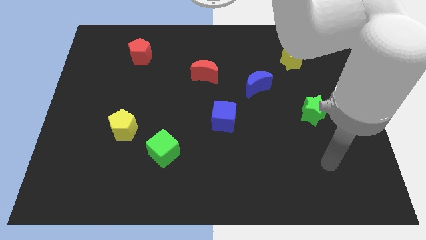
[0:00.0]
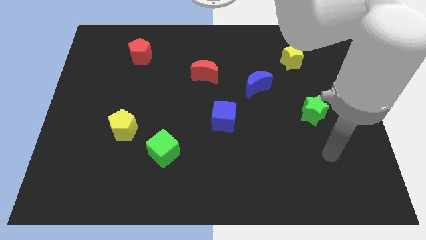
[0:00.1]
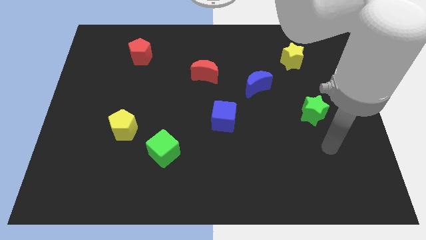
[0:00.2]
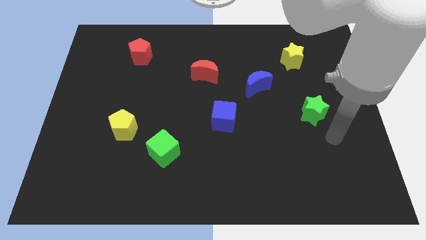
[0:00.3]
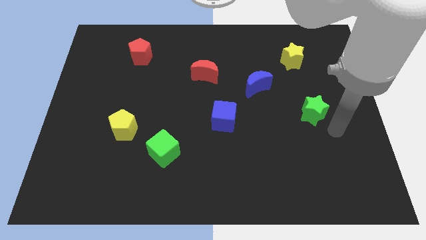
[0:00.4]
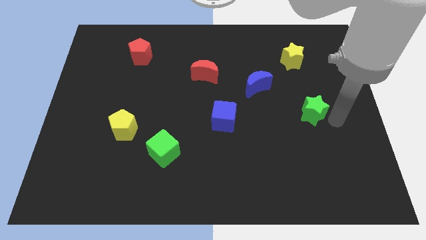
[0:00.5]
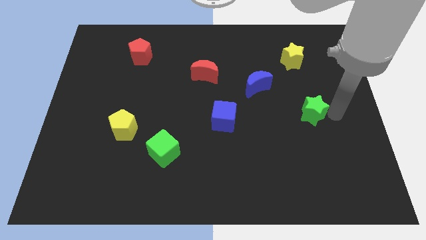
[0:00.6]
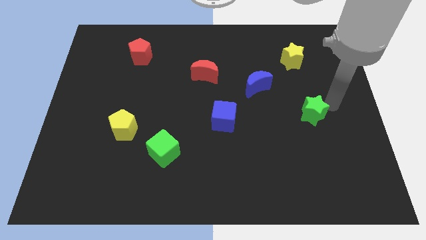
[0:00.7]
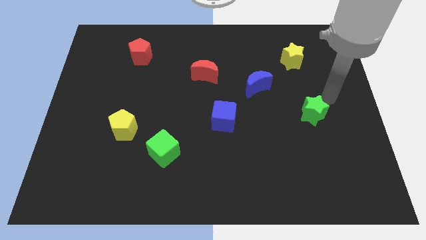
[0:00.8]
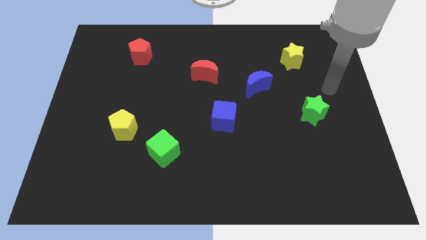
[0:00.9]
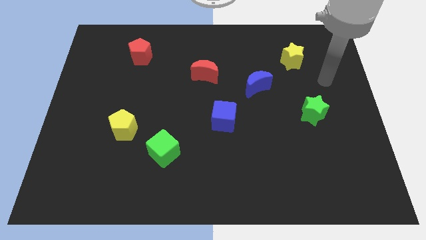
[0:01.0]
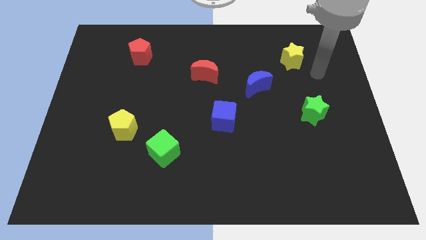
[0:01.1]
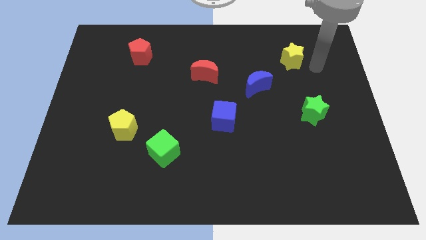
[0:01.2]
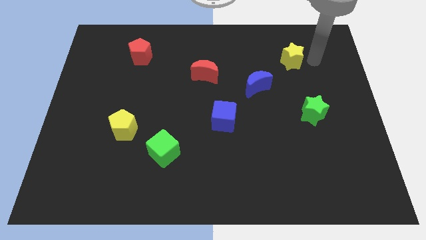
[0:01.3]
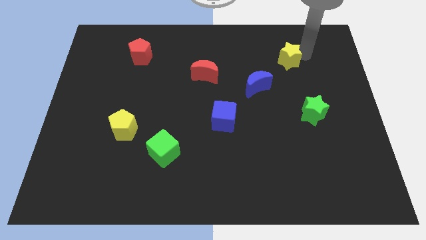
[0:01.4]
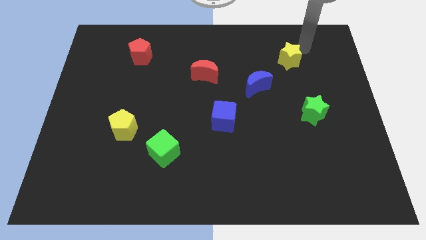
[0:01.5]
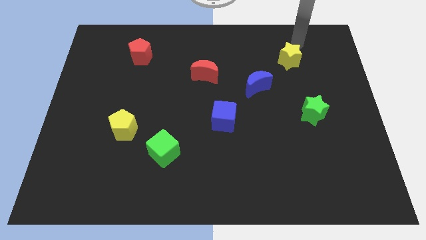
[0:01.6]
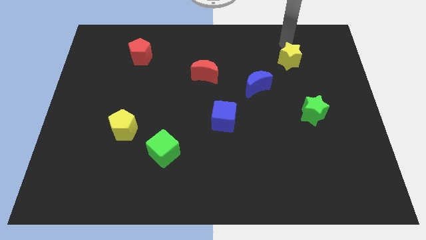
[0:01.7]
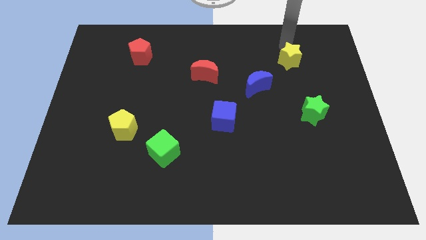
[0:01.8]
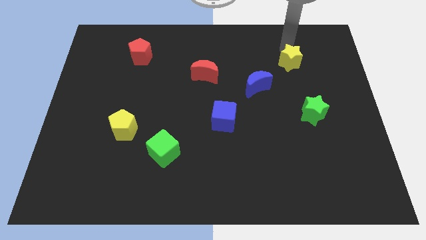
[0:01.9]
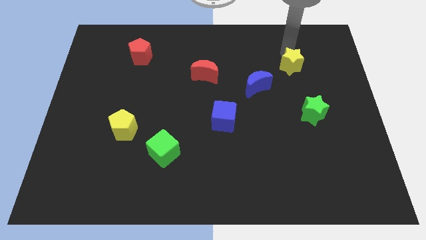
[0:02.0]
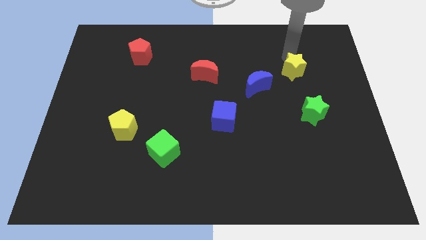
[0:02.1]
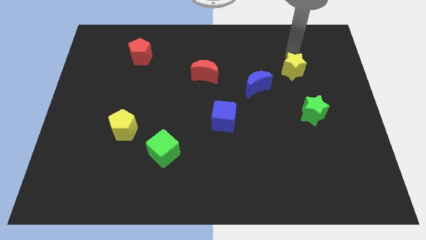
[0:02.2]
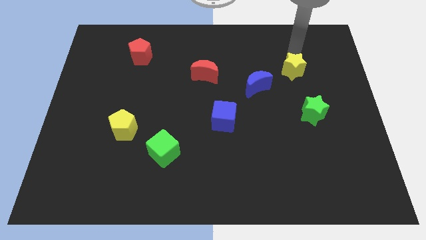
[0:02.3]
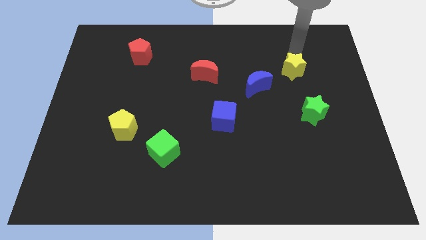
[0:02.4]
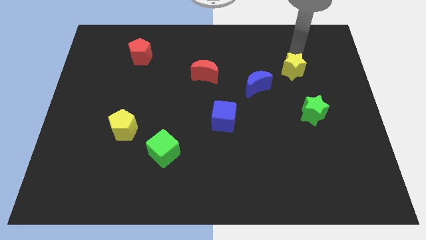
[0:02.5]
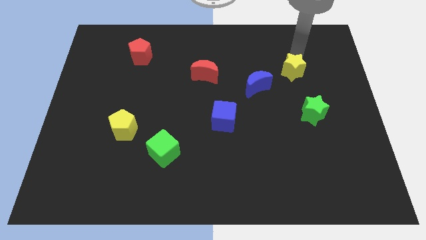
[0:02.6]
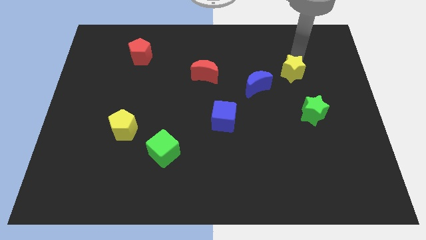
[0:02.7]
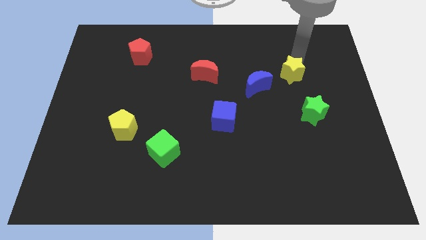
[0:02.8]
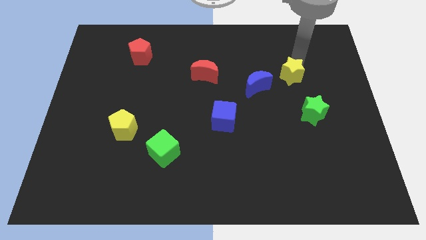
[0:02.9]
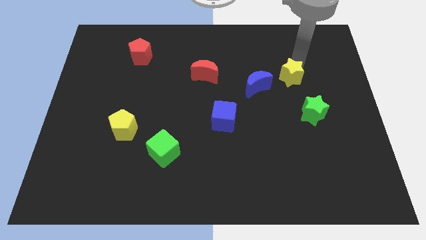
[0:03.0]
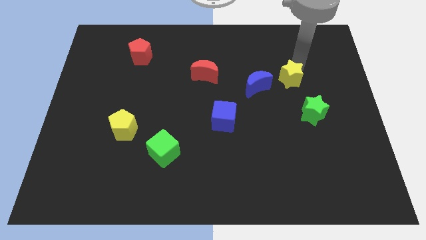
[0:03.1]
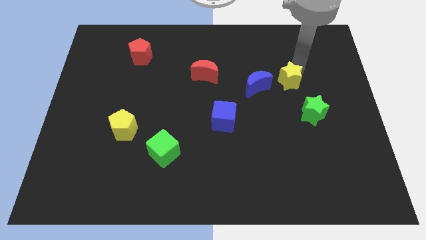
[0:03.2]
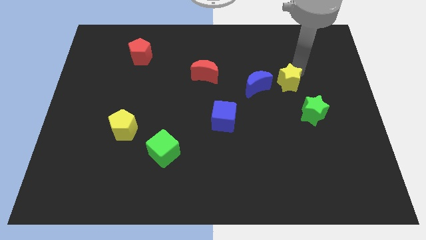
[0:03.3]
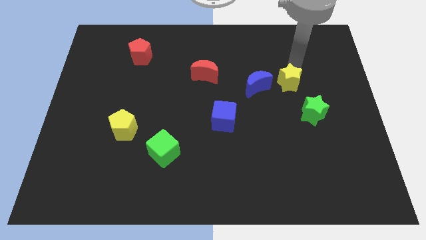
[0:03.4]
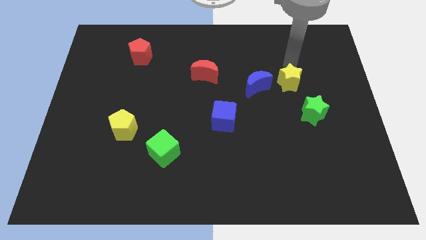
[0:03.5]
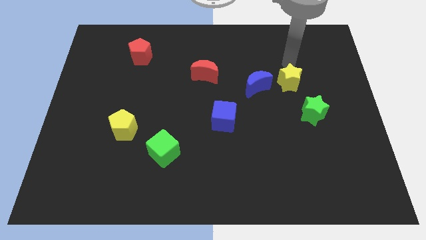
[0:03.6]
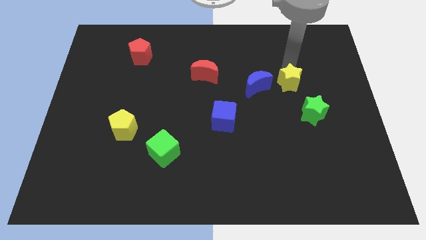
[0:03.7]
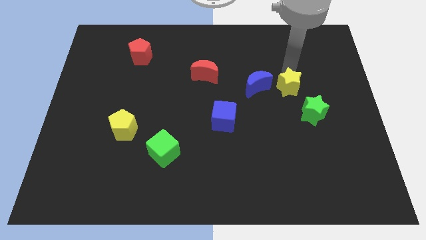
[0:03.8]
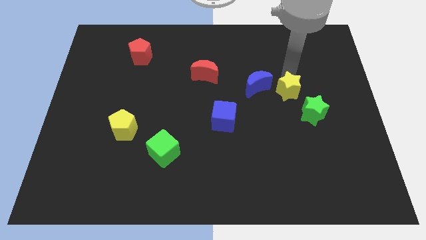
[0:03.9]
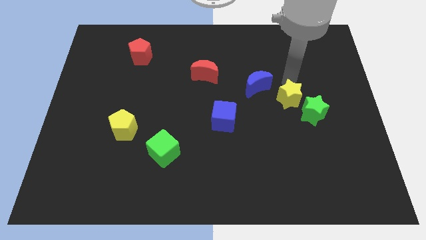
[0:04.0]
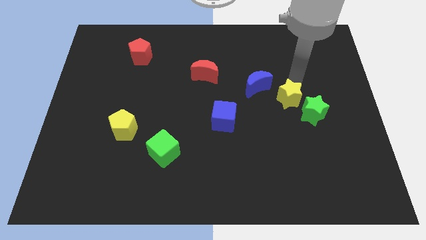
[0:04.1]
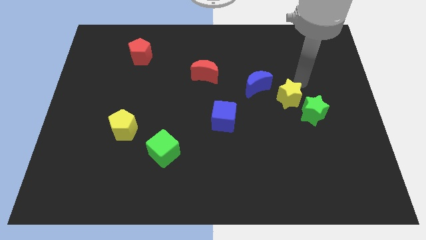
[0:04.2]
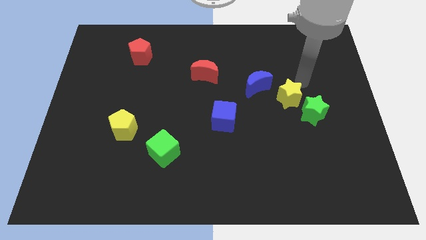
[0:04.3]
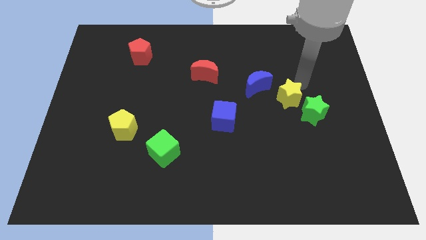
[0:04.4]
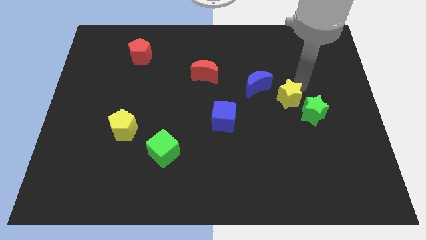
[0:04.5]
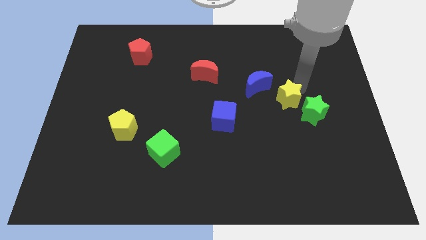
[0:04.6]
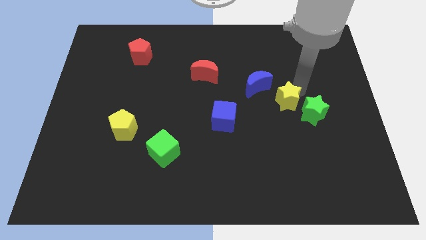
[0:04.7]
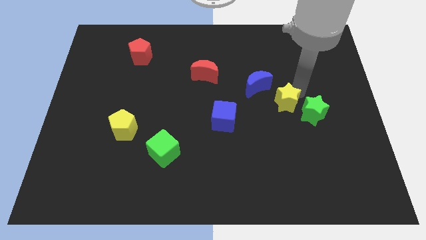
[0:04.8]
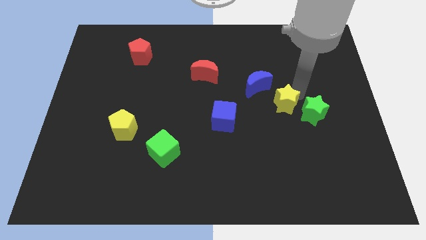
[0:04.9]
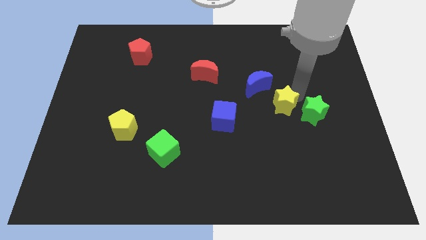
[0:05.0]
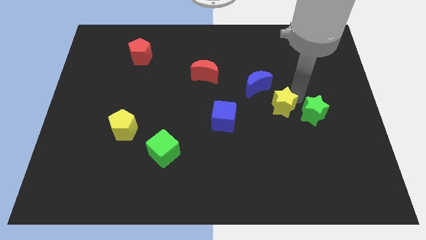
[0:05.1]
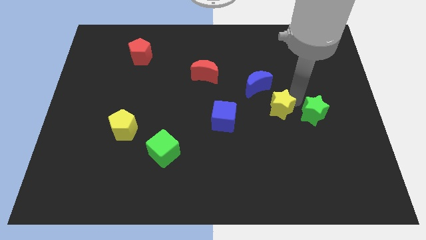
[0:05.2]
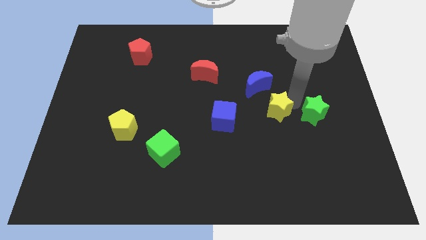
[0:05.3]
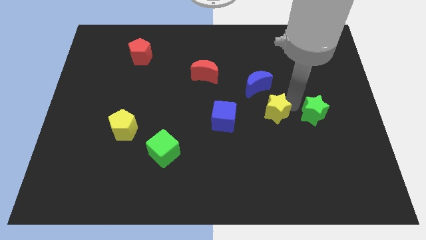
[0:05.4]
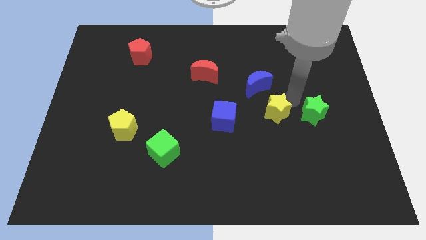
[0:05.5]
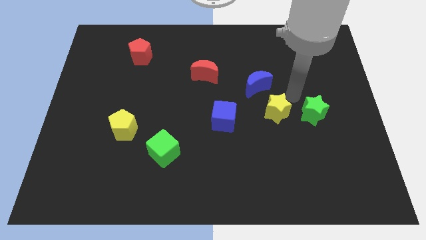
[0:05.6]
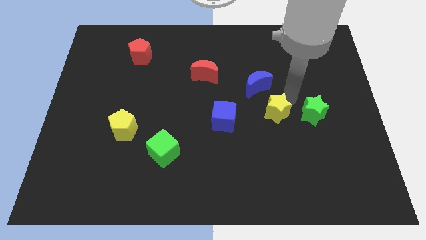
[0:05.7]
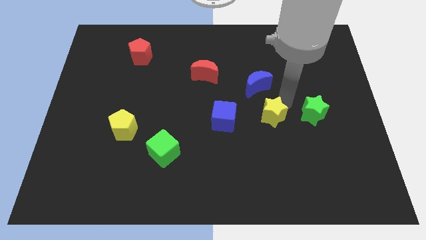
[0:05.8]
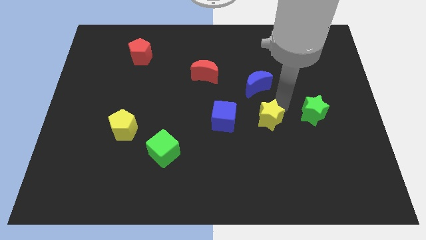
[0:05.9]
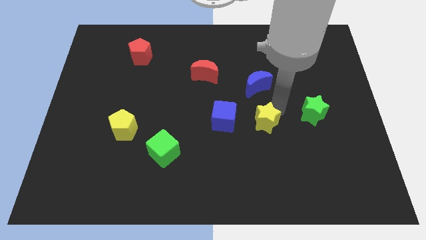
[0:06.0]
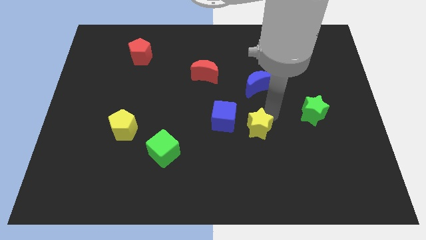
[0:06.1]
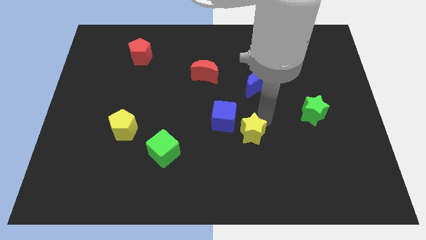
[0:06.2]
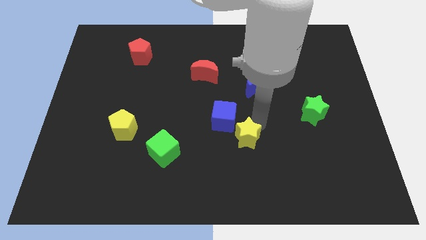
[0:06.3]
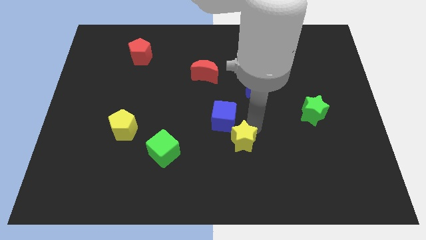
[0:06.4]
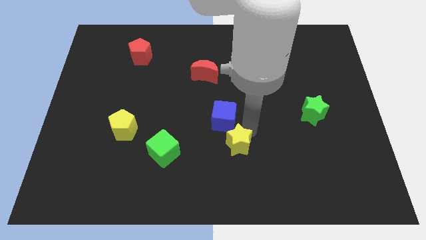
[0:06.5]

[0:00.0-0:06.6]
slide the yellow star to the right of the green cube

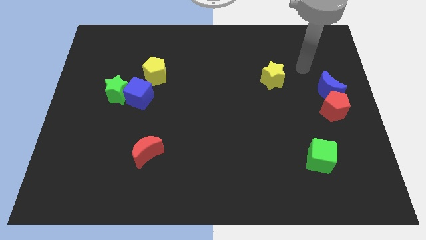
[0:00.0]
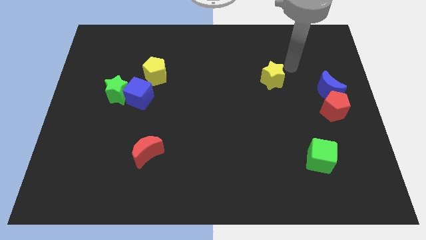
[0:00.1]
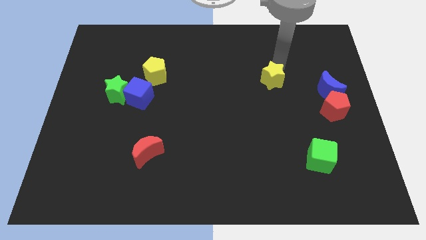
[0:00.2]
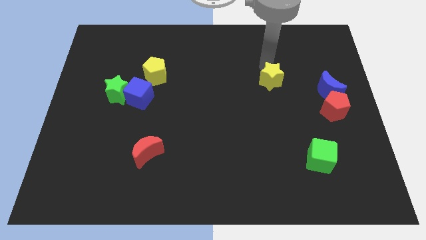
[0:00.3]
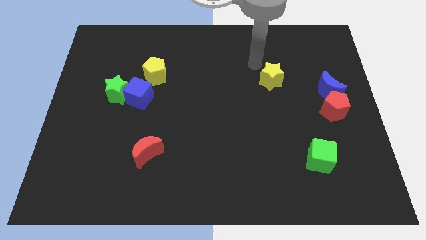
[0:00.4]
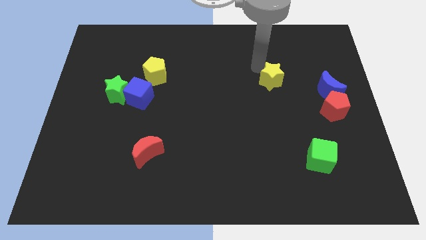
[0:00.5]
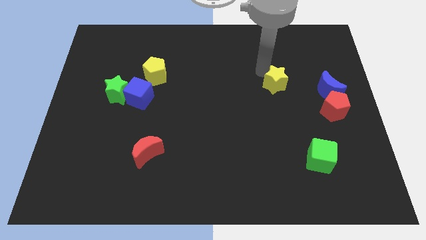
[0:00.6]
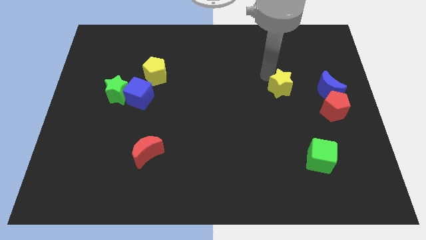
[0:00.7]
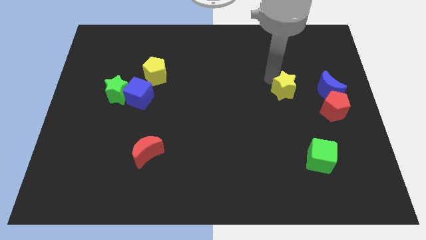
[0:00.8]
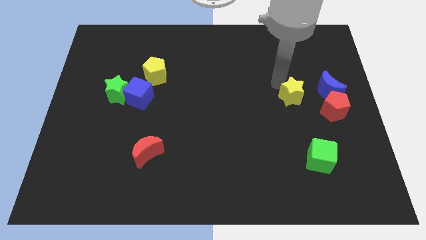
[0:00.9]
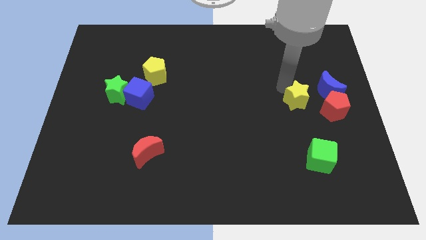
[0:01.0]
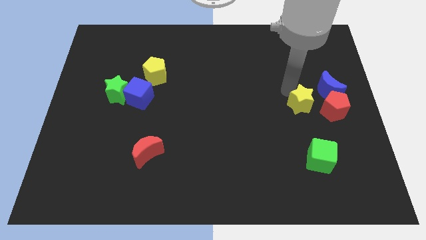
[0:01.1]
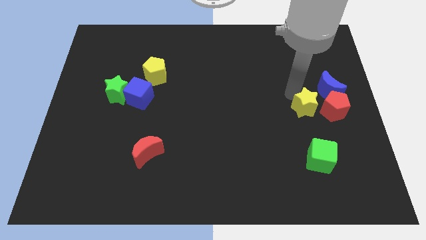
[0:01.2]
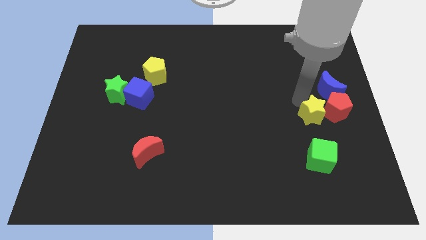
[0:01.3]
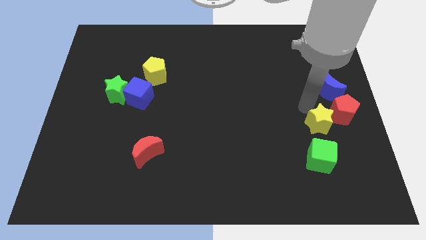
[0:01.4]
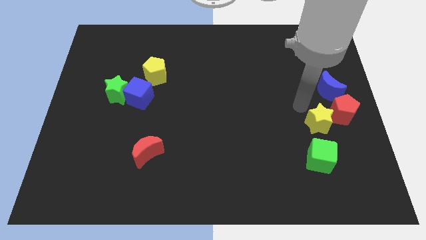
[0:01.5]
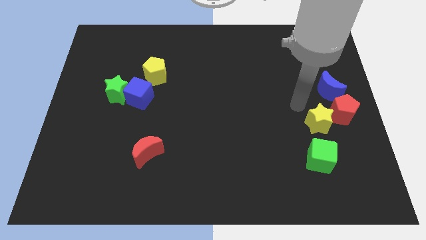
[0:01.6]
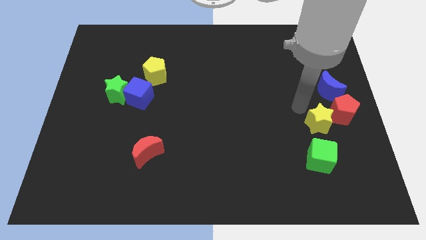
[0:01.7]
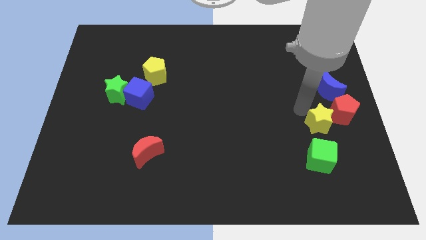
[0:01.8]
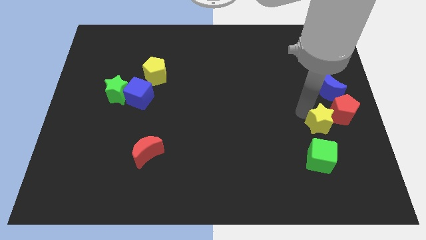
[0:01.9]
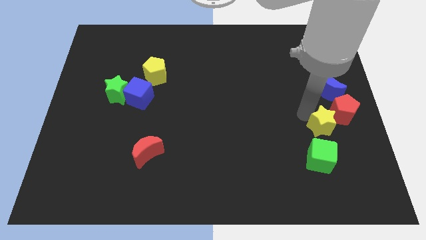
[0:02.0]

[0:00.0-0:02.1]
move the yellow star to the top right side of the green cube
